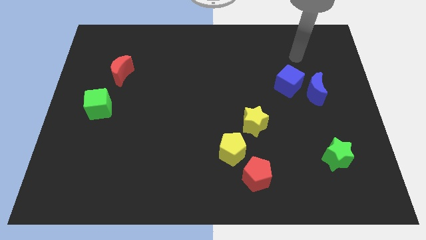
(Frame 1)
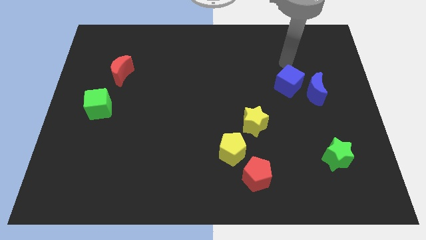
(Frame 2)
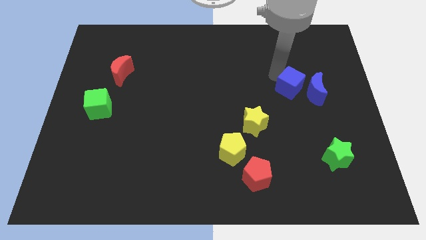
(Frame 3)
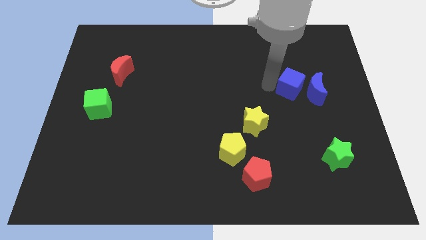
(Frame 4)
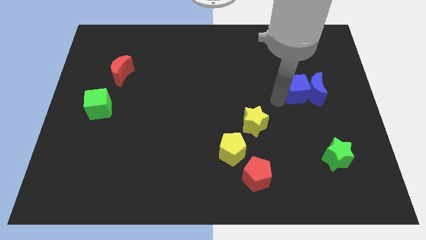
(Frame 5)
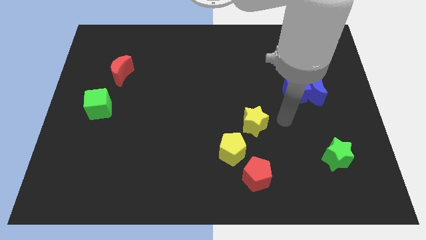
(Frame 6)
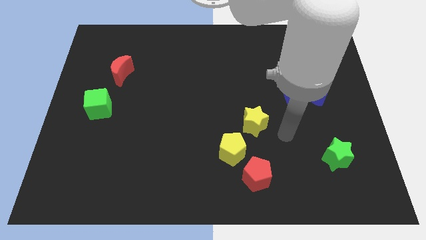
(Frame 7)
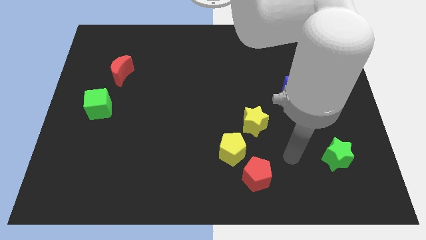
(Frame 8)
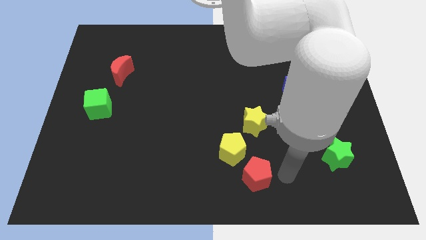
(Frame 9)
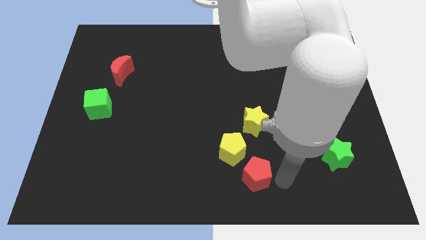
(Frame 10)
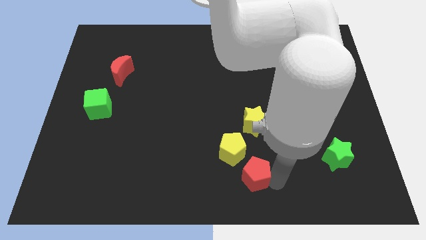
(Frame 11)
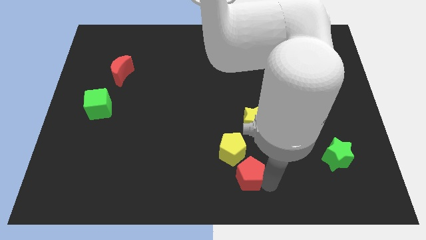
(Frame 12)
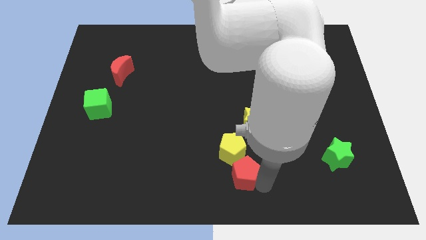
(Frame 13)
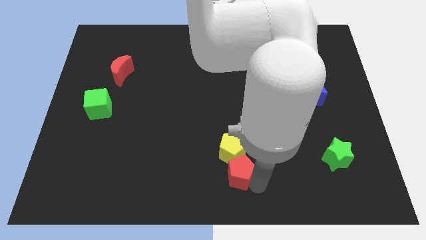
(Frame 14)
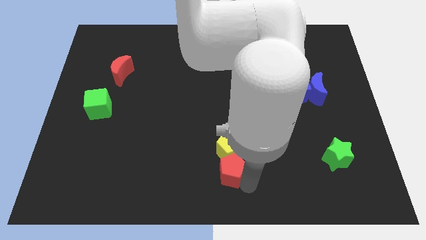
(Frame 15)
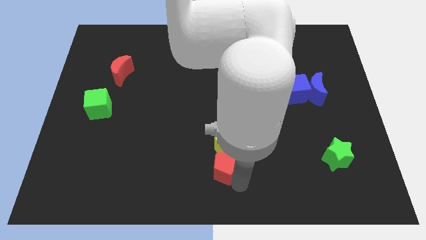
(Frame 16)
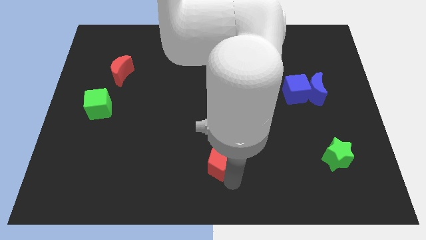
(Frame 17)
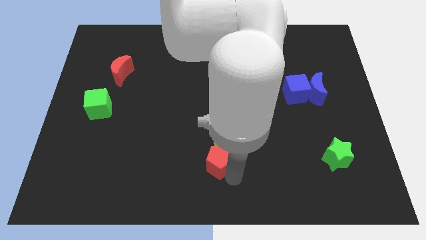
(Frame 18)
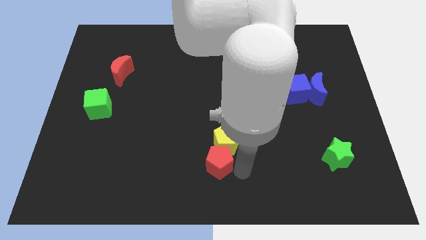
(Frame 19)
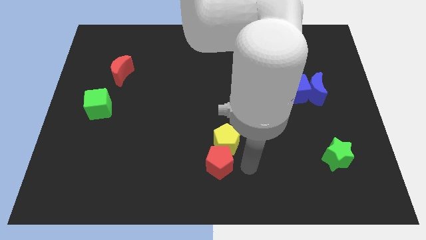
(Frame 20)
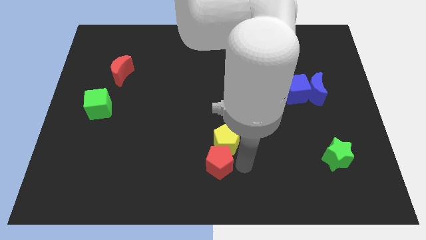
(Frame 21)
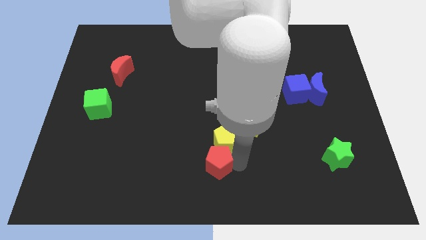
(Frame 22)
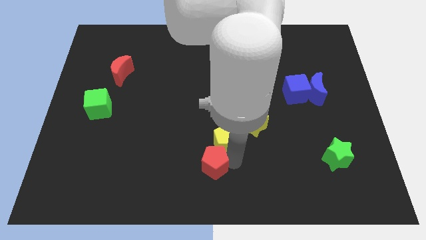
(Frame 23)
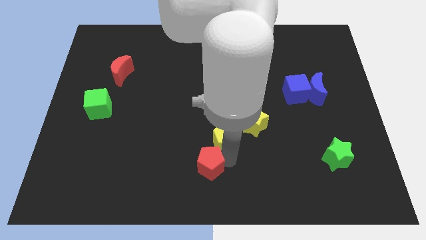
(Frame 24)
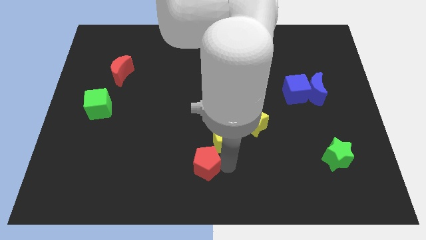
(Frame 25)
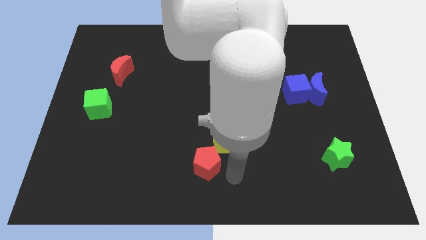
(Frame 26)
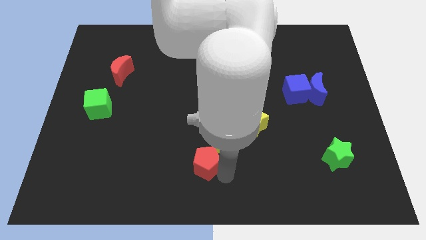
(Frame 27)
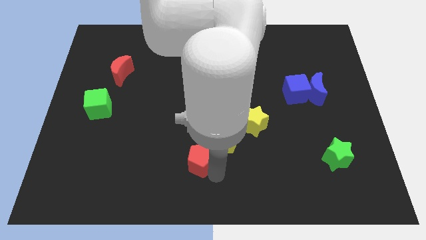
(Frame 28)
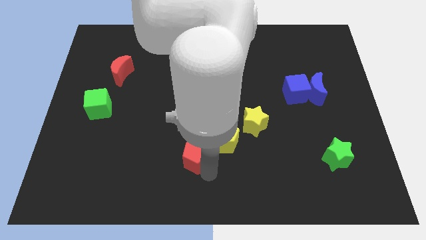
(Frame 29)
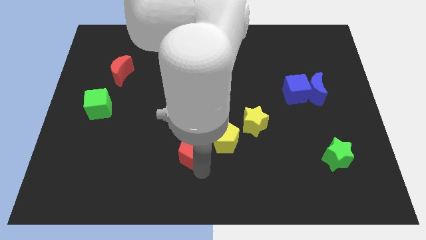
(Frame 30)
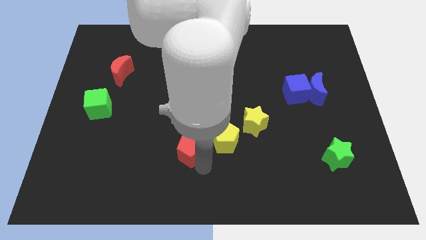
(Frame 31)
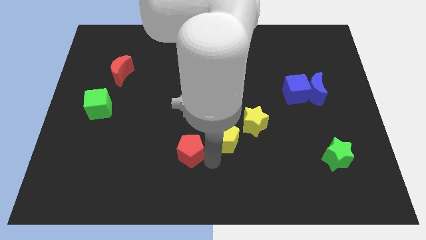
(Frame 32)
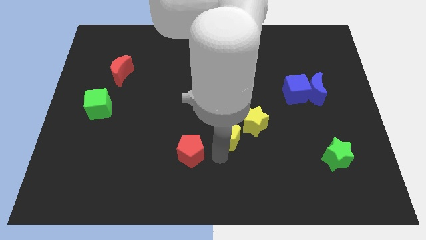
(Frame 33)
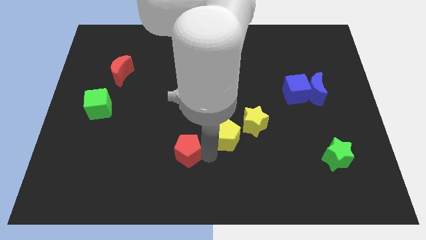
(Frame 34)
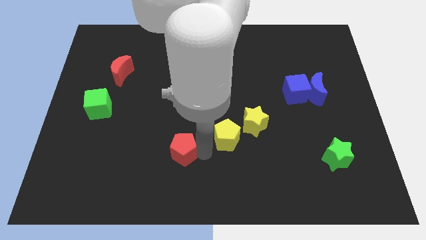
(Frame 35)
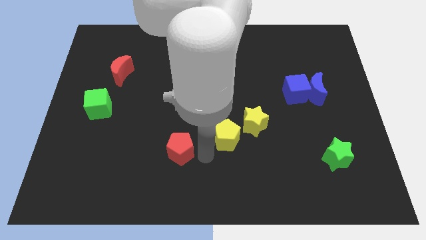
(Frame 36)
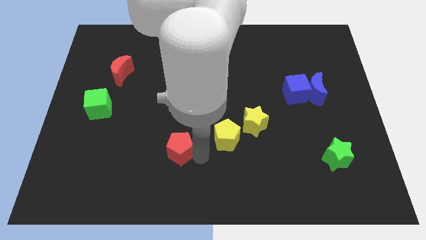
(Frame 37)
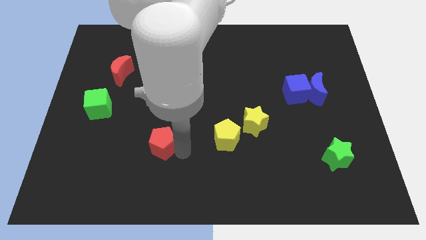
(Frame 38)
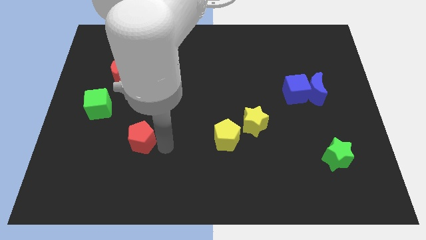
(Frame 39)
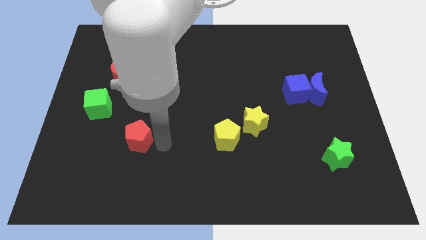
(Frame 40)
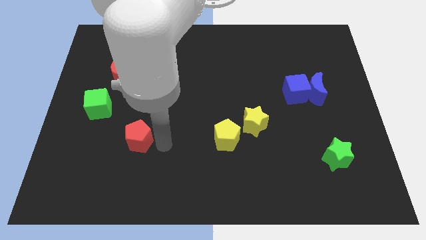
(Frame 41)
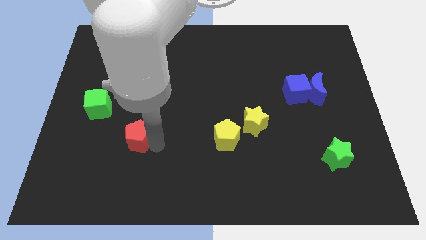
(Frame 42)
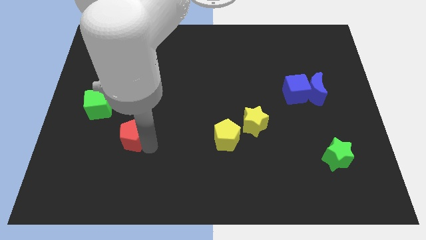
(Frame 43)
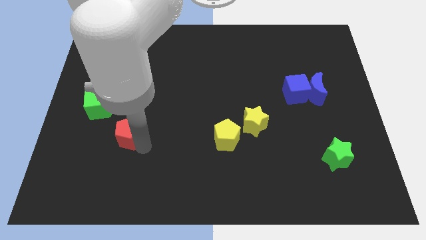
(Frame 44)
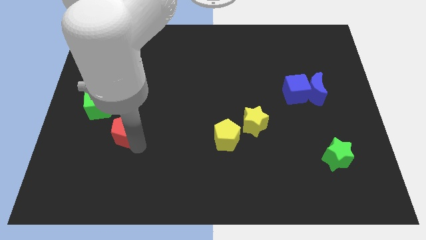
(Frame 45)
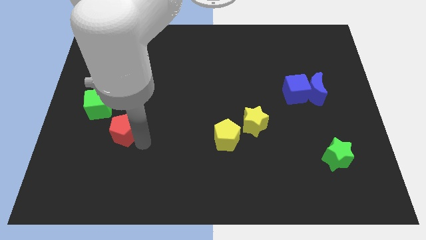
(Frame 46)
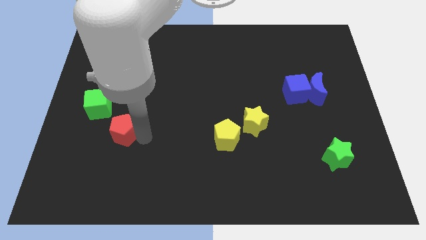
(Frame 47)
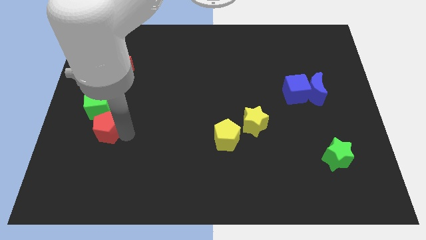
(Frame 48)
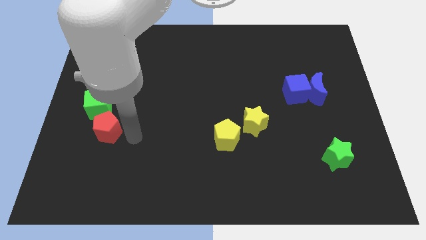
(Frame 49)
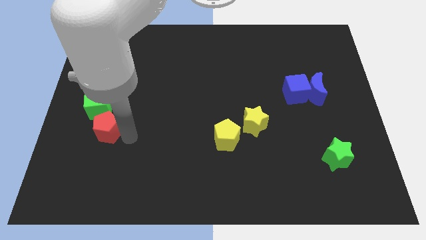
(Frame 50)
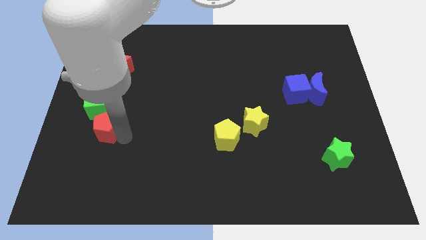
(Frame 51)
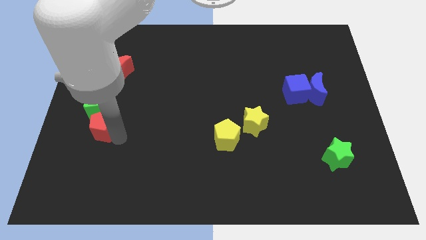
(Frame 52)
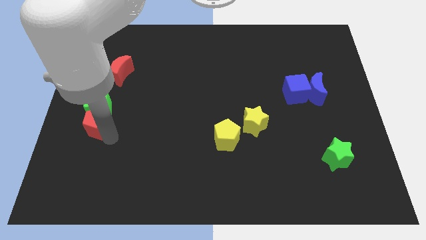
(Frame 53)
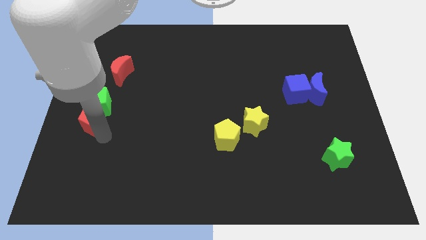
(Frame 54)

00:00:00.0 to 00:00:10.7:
move the red pentagon to the center left

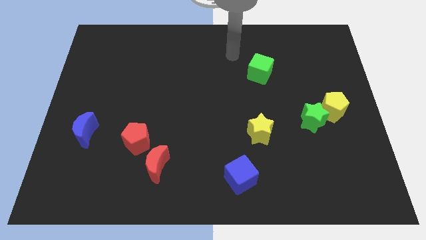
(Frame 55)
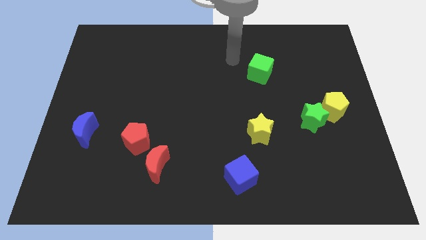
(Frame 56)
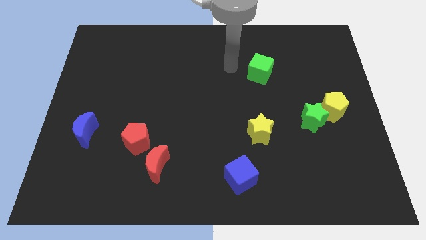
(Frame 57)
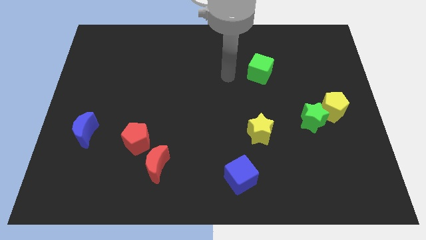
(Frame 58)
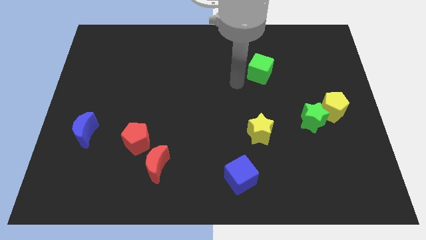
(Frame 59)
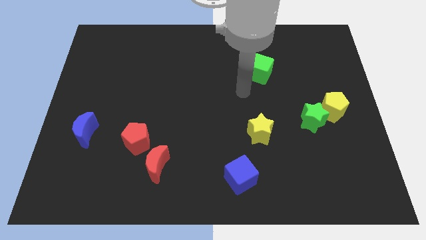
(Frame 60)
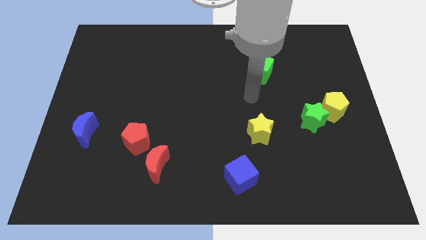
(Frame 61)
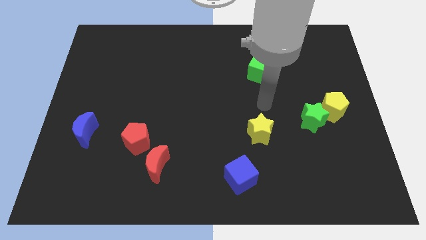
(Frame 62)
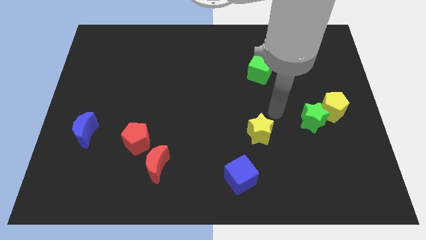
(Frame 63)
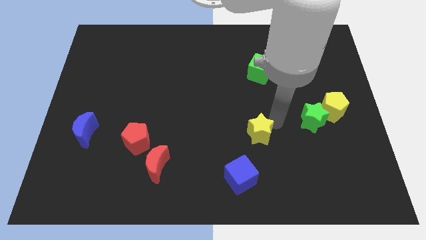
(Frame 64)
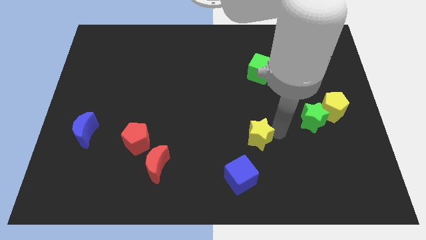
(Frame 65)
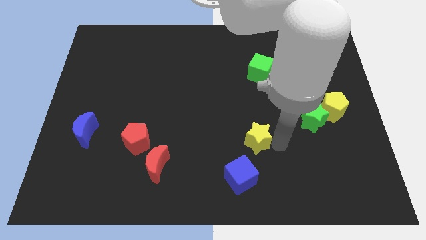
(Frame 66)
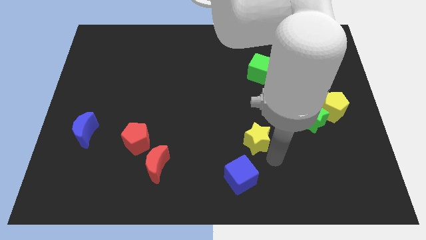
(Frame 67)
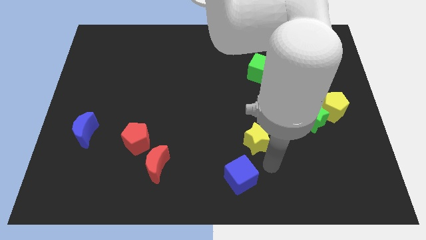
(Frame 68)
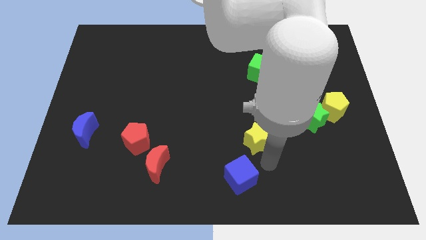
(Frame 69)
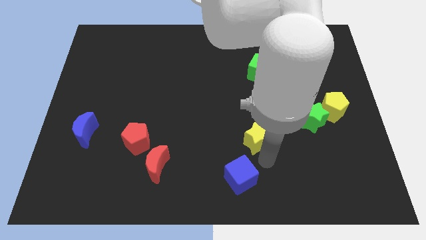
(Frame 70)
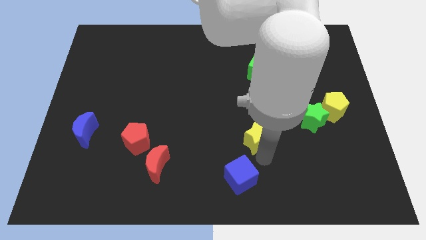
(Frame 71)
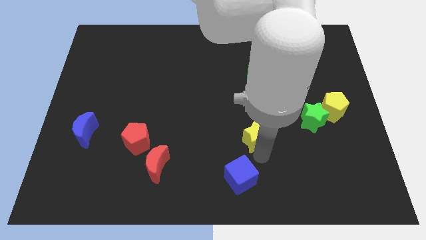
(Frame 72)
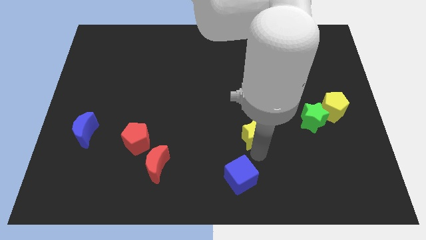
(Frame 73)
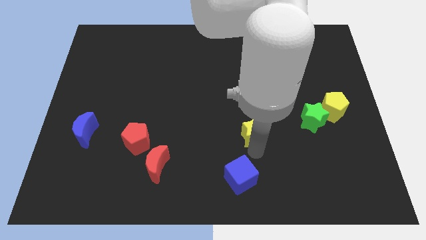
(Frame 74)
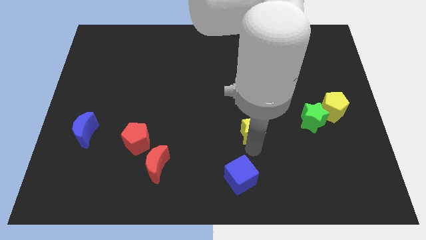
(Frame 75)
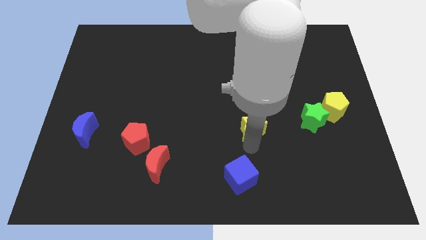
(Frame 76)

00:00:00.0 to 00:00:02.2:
slide the yellow star to the center of the board
